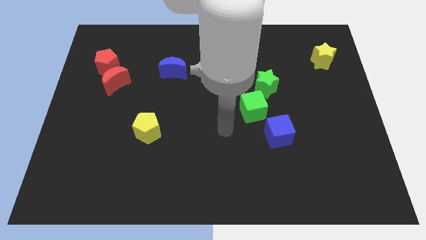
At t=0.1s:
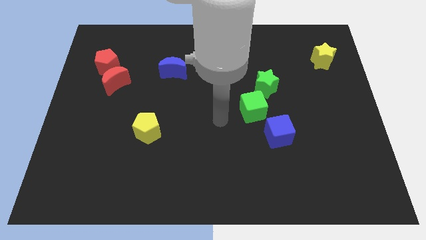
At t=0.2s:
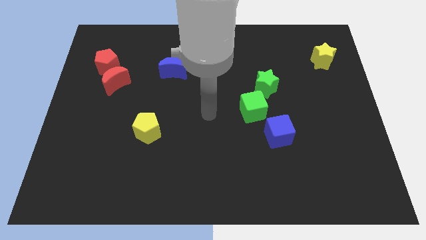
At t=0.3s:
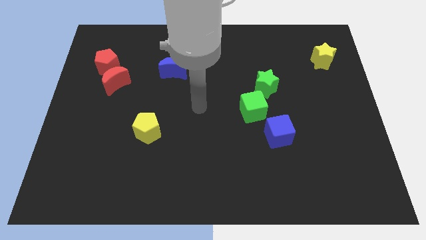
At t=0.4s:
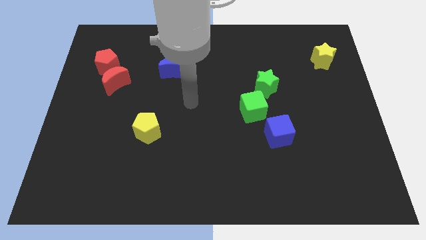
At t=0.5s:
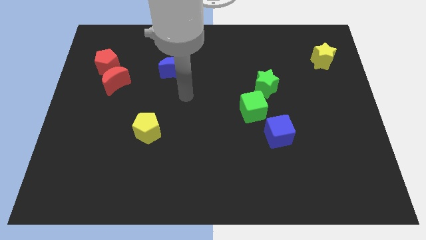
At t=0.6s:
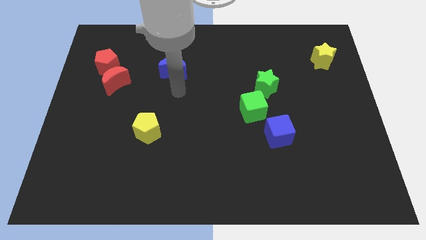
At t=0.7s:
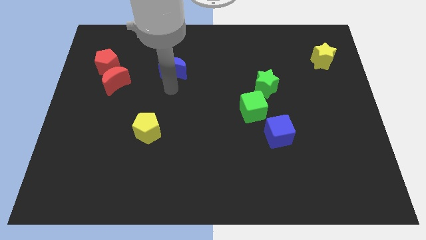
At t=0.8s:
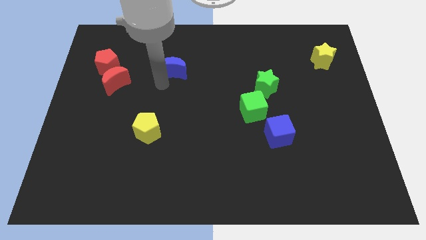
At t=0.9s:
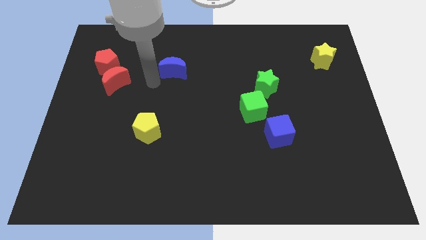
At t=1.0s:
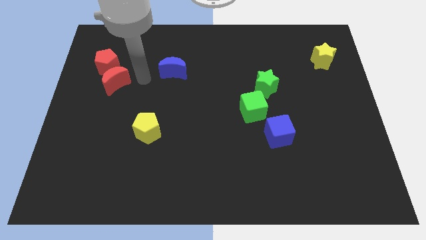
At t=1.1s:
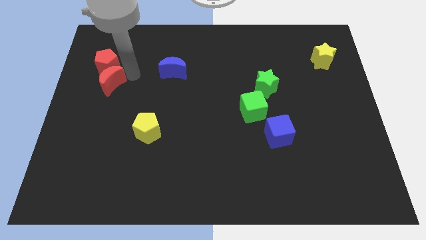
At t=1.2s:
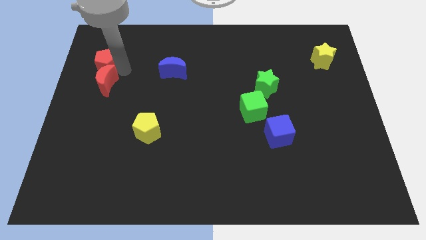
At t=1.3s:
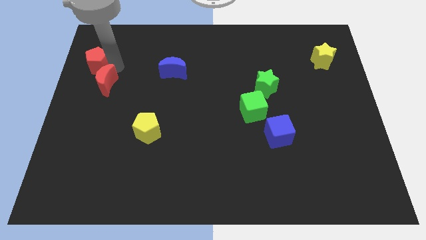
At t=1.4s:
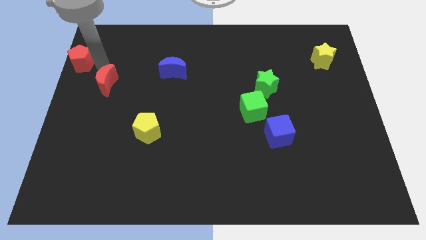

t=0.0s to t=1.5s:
separate the red moon from the red pentagon

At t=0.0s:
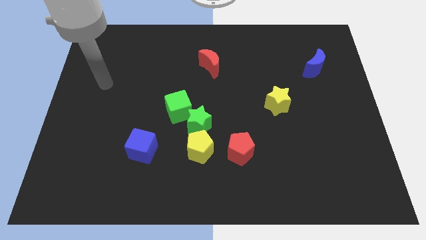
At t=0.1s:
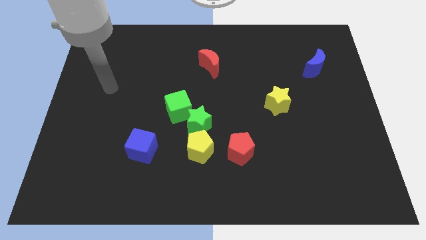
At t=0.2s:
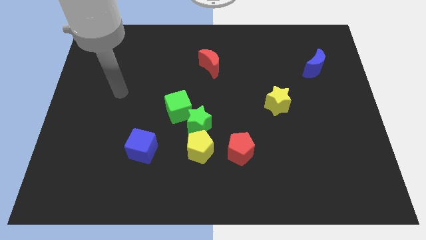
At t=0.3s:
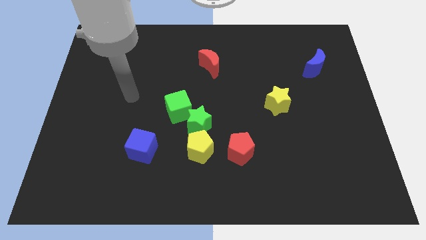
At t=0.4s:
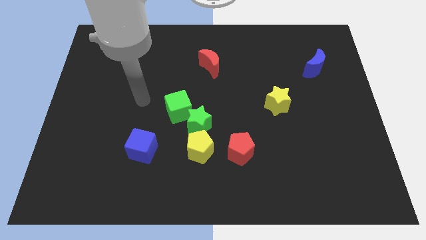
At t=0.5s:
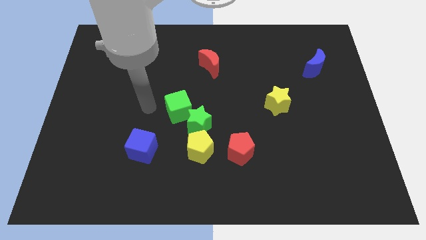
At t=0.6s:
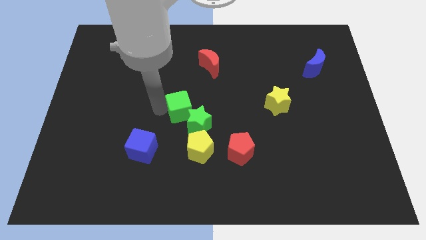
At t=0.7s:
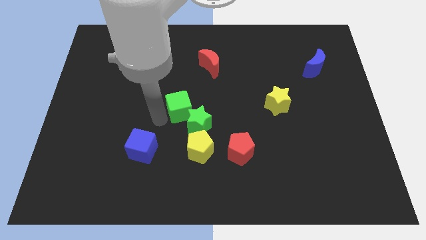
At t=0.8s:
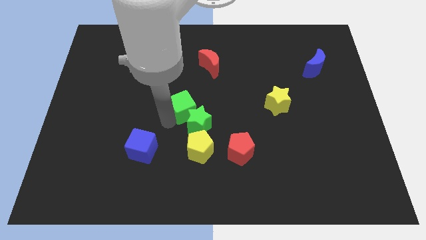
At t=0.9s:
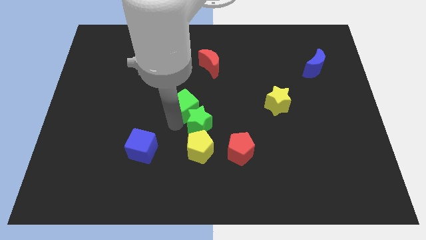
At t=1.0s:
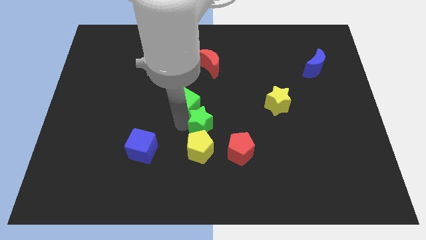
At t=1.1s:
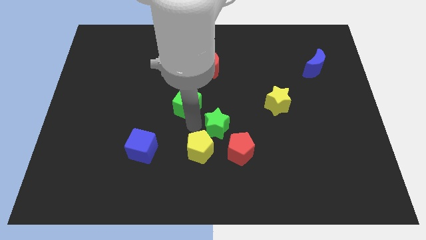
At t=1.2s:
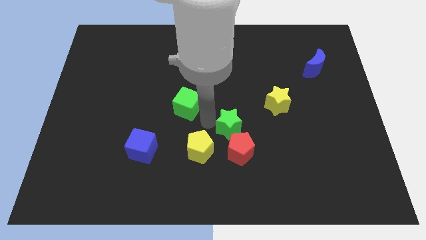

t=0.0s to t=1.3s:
separate the green cube from the green star

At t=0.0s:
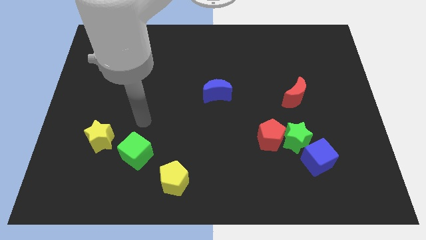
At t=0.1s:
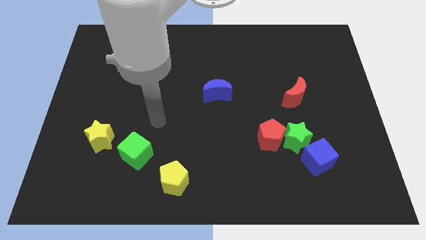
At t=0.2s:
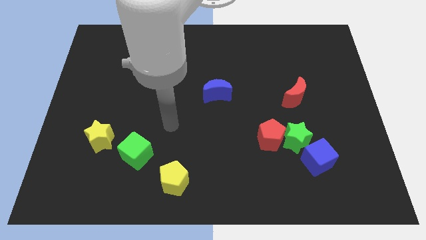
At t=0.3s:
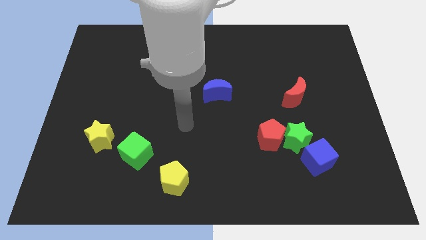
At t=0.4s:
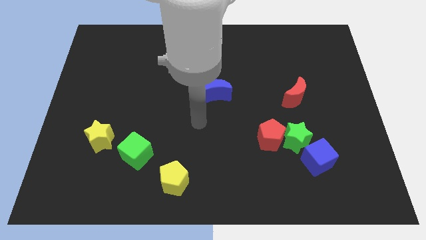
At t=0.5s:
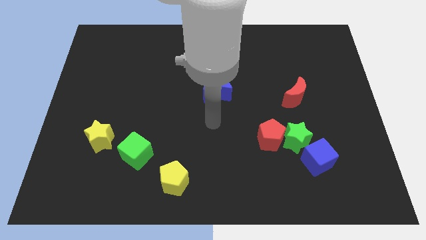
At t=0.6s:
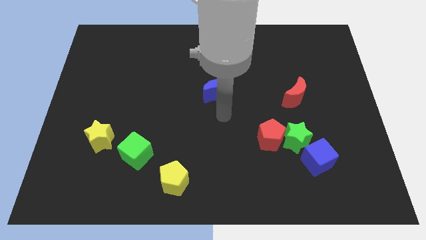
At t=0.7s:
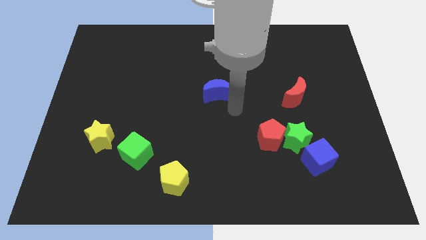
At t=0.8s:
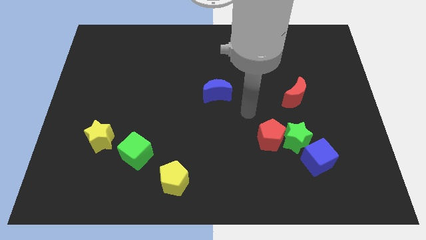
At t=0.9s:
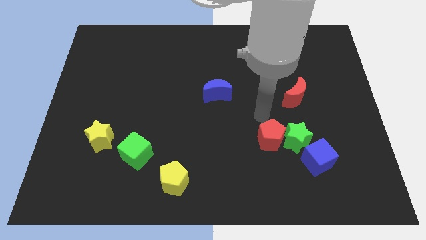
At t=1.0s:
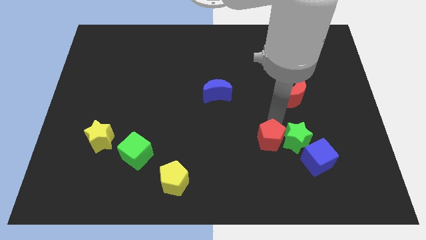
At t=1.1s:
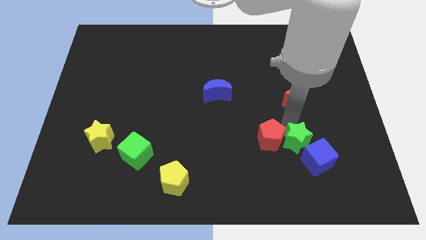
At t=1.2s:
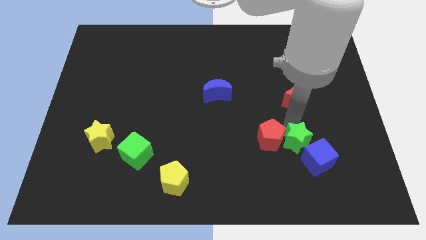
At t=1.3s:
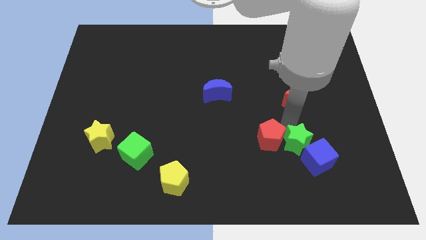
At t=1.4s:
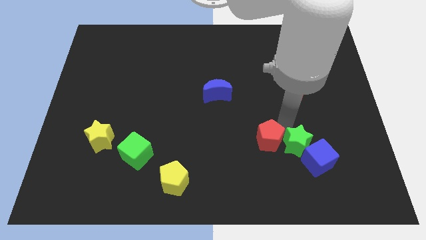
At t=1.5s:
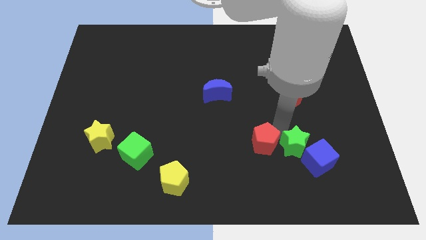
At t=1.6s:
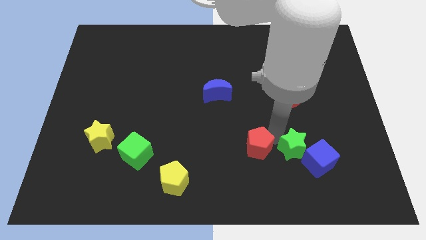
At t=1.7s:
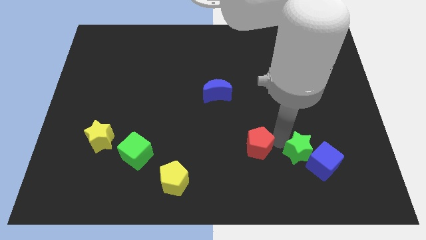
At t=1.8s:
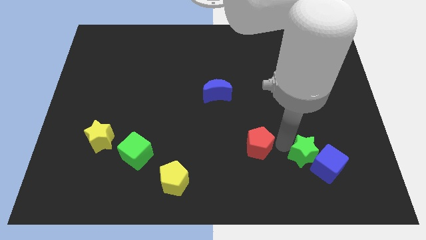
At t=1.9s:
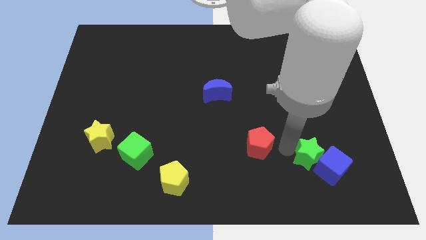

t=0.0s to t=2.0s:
separate the red pentagon from the green star

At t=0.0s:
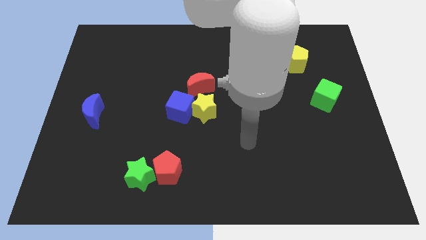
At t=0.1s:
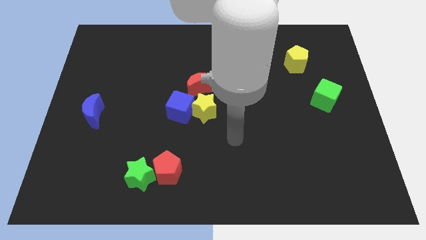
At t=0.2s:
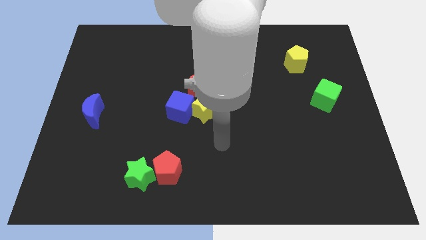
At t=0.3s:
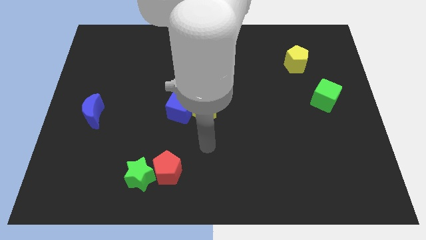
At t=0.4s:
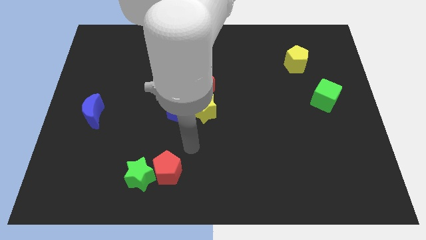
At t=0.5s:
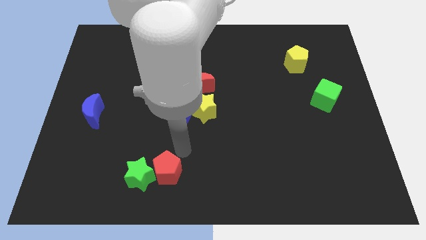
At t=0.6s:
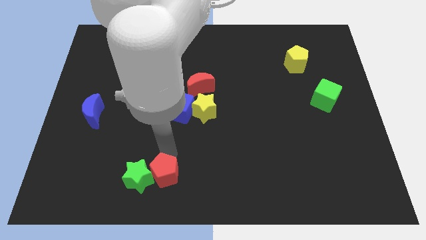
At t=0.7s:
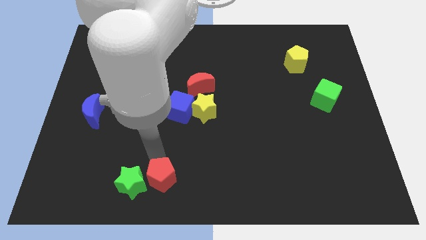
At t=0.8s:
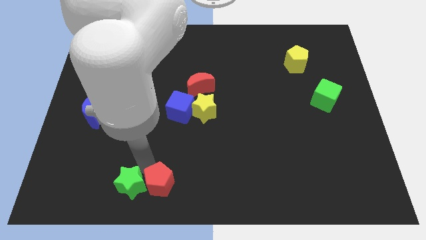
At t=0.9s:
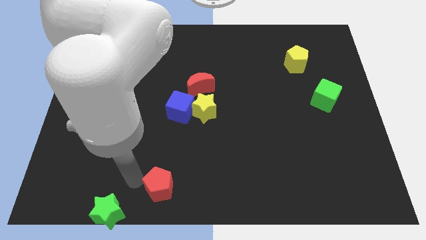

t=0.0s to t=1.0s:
move the red pentagon away from the green star

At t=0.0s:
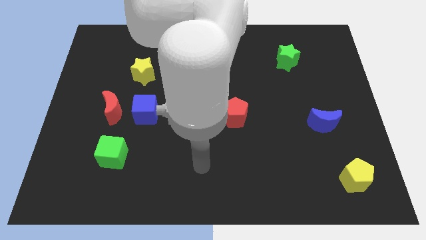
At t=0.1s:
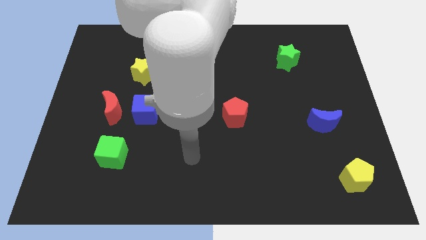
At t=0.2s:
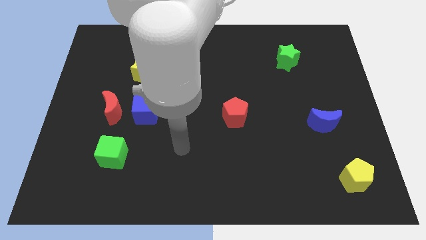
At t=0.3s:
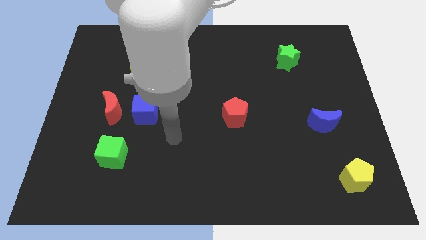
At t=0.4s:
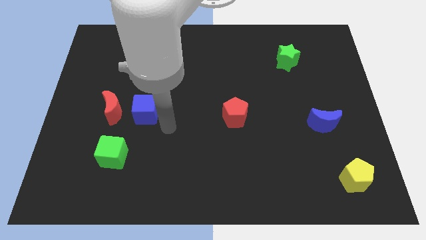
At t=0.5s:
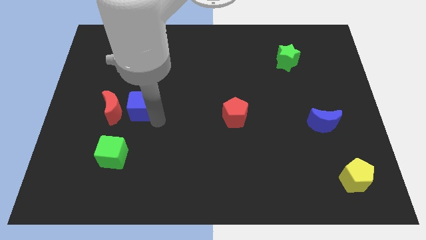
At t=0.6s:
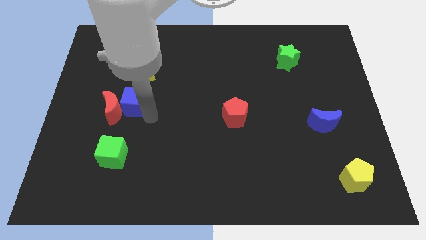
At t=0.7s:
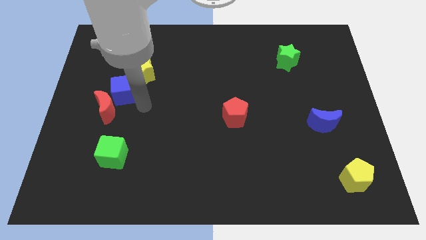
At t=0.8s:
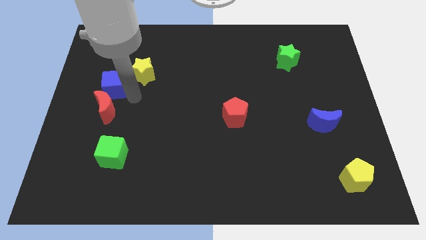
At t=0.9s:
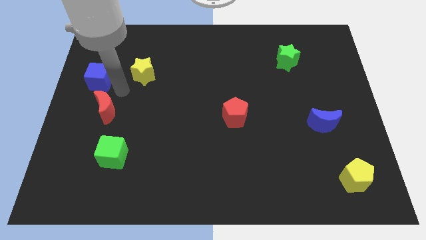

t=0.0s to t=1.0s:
move the red moon away from the blue cube

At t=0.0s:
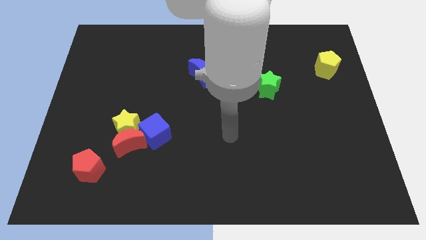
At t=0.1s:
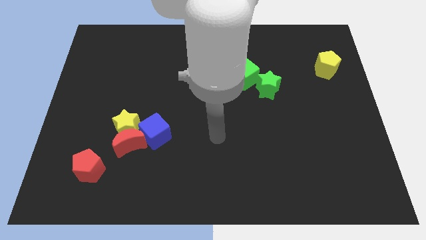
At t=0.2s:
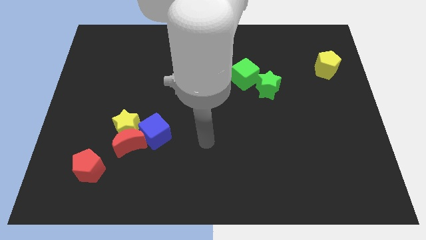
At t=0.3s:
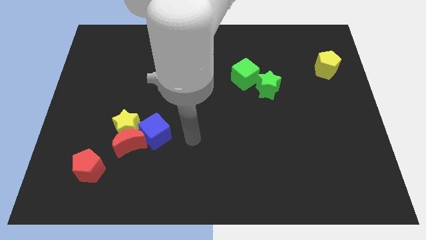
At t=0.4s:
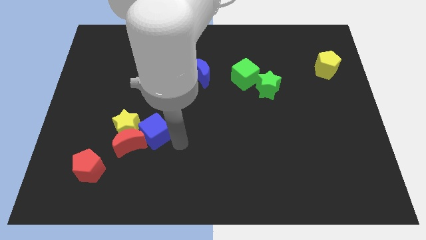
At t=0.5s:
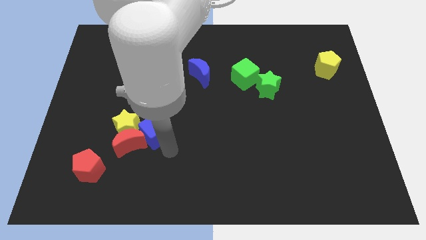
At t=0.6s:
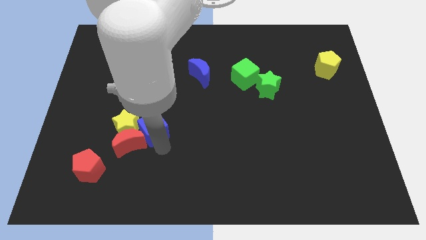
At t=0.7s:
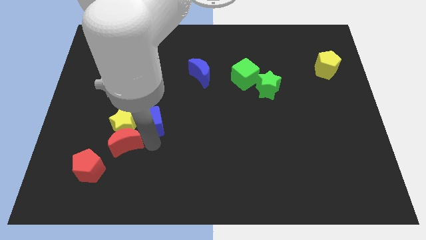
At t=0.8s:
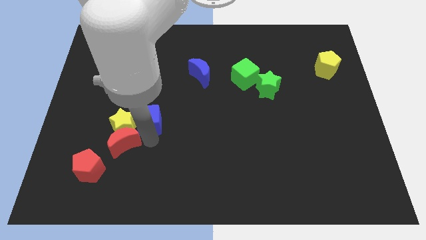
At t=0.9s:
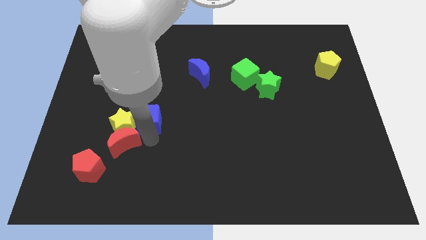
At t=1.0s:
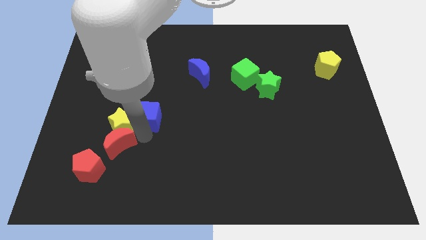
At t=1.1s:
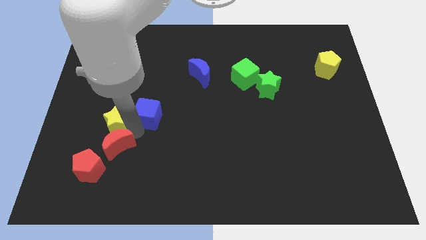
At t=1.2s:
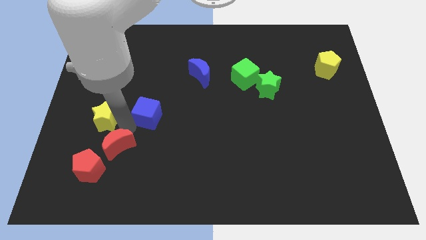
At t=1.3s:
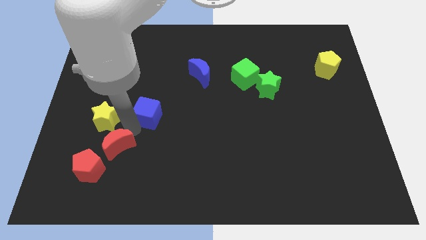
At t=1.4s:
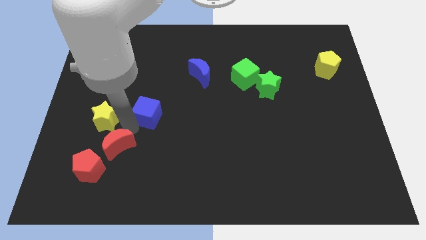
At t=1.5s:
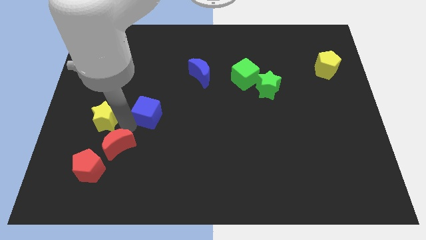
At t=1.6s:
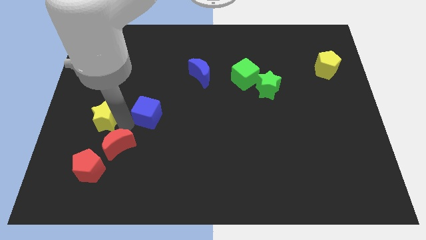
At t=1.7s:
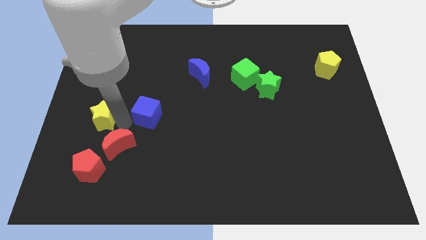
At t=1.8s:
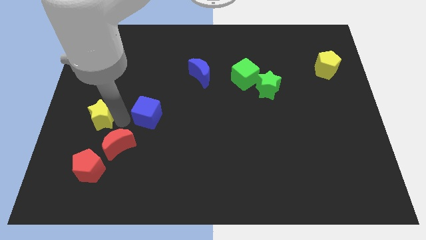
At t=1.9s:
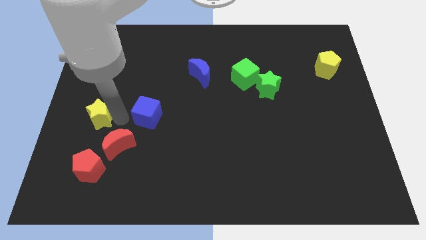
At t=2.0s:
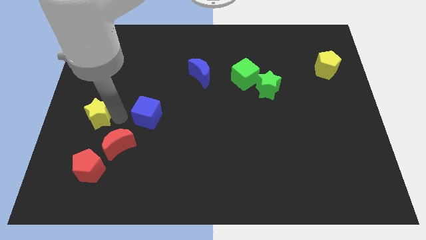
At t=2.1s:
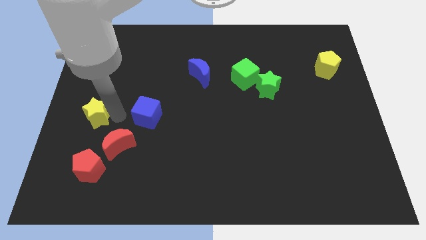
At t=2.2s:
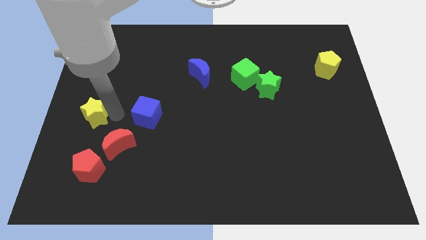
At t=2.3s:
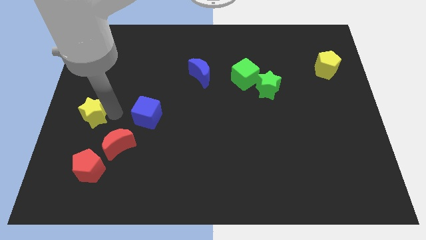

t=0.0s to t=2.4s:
separate the yellow star from the red moon and blue cube
